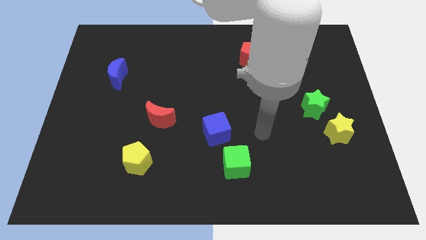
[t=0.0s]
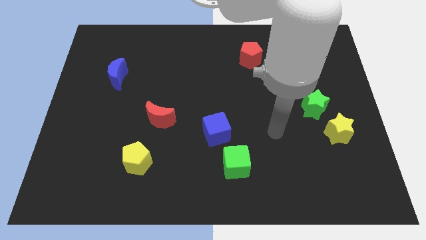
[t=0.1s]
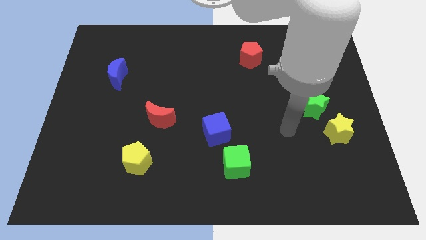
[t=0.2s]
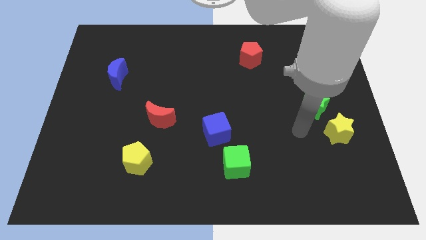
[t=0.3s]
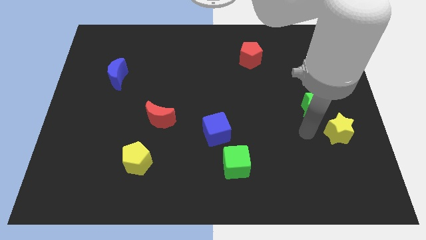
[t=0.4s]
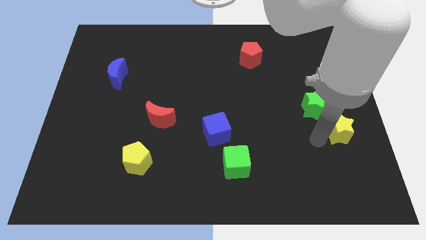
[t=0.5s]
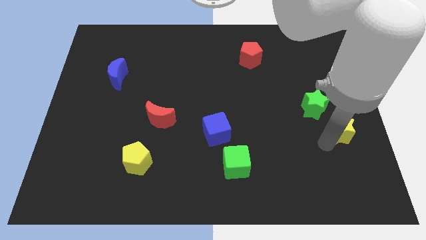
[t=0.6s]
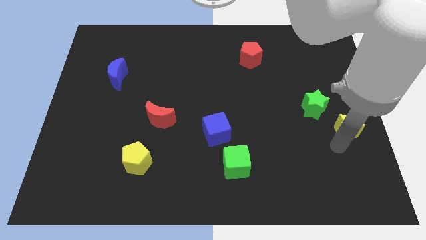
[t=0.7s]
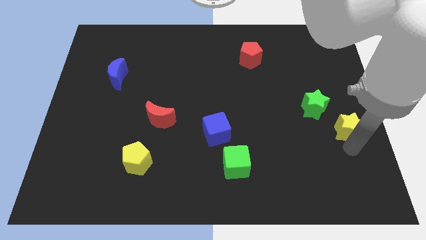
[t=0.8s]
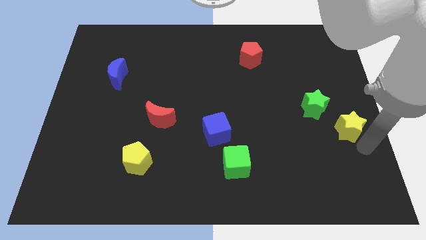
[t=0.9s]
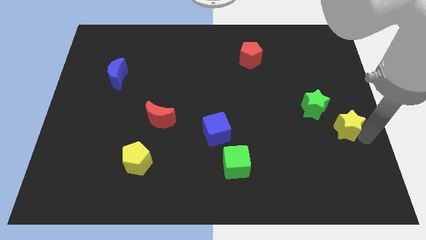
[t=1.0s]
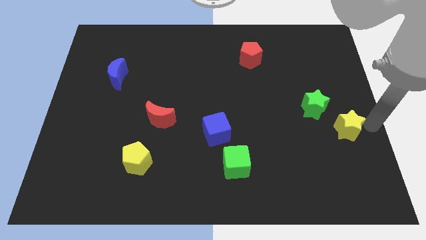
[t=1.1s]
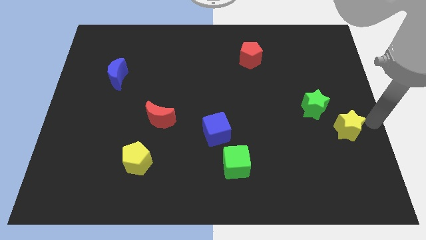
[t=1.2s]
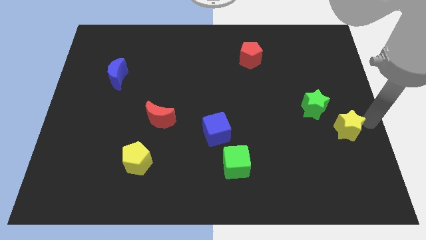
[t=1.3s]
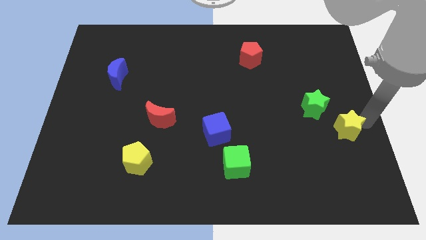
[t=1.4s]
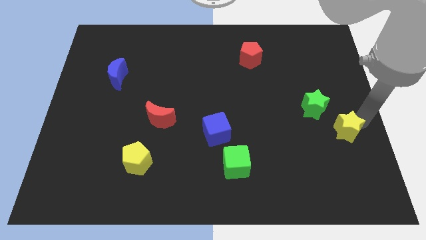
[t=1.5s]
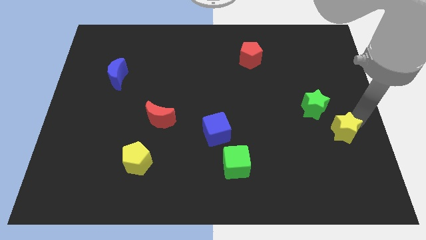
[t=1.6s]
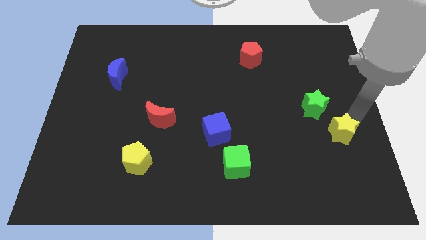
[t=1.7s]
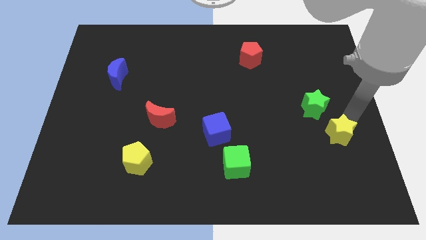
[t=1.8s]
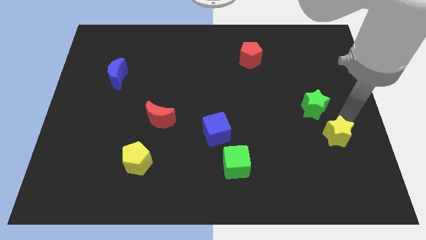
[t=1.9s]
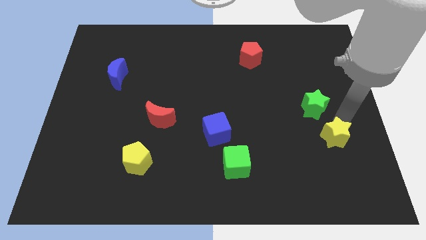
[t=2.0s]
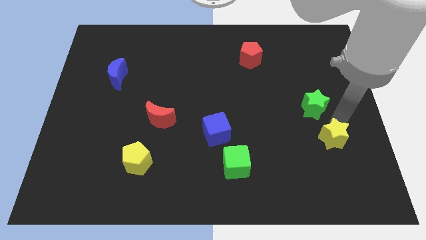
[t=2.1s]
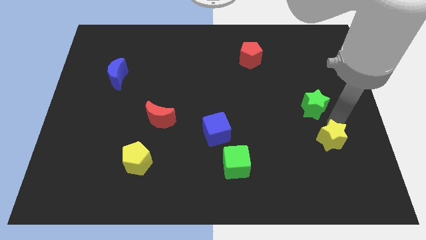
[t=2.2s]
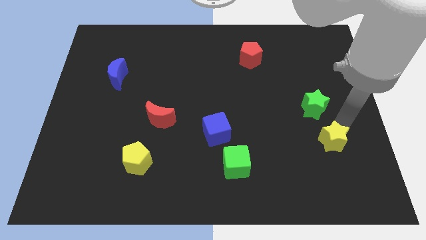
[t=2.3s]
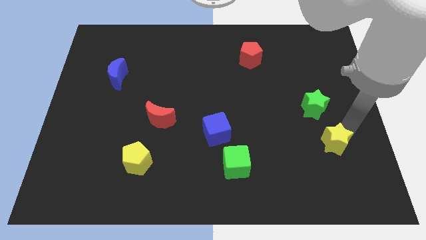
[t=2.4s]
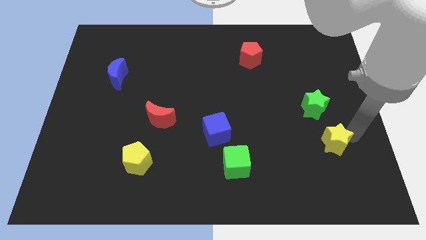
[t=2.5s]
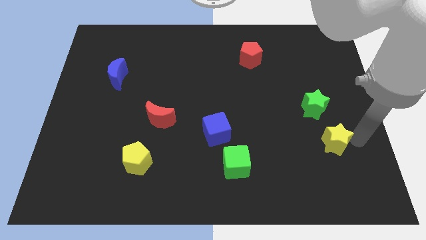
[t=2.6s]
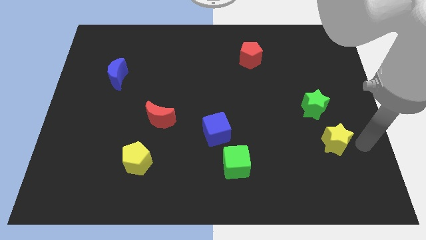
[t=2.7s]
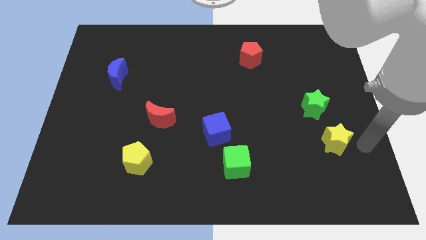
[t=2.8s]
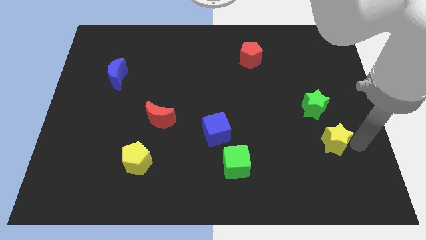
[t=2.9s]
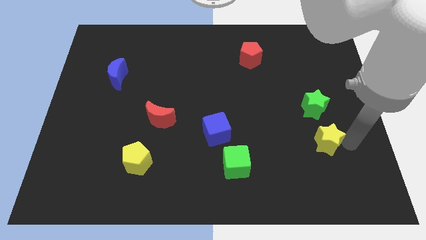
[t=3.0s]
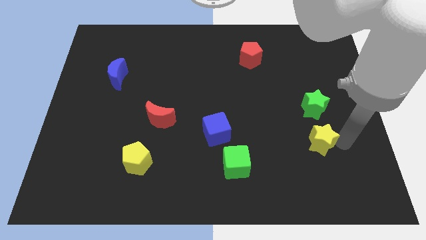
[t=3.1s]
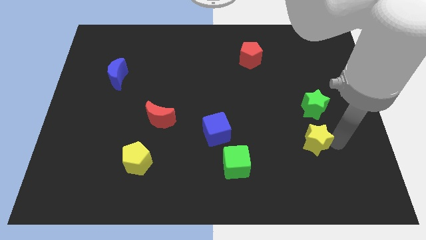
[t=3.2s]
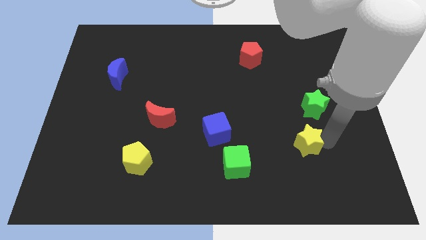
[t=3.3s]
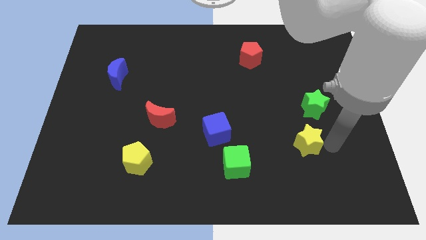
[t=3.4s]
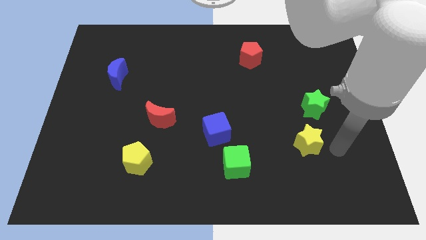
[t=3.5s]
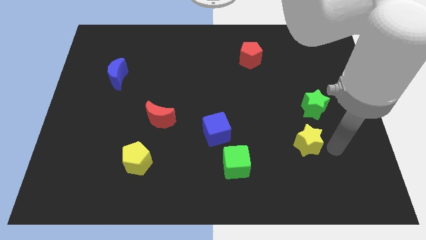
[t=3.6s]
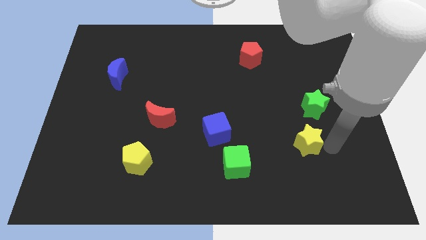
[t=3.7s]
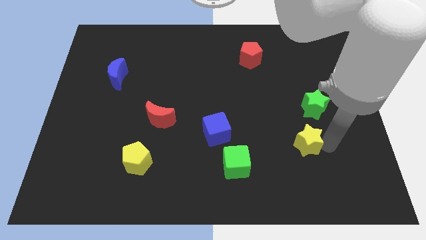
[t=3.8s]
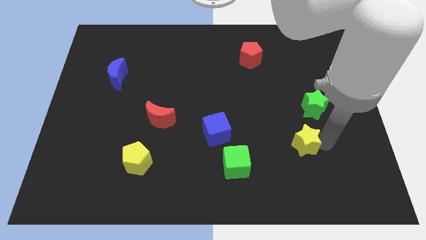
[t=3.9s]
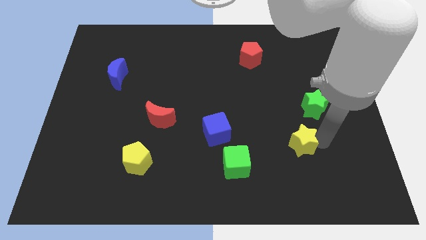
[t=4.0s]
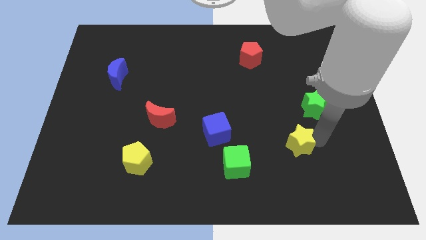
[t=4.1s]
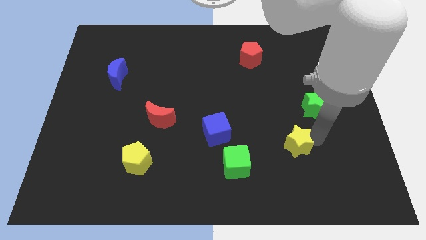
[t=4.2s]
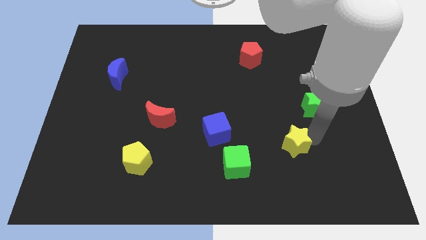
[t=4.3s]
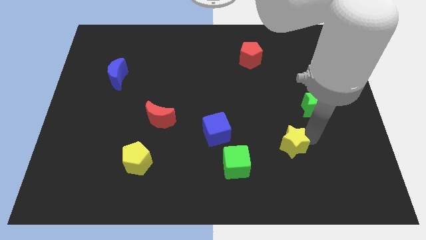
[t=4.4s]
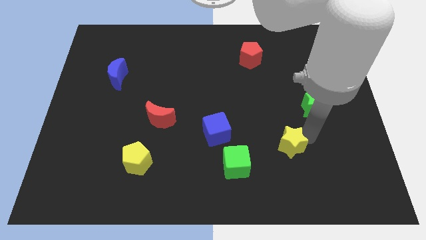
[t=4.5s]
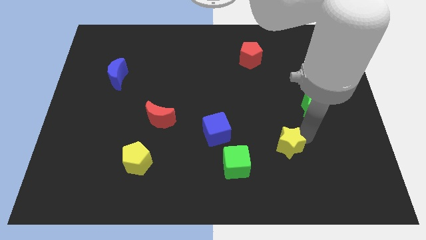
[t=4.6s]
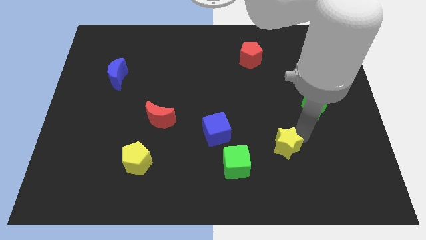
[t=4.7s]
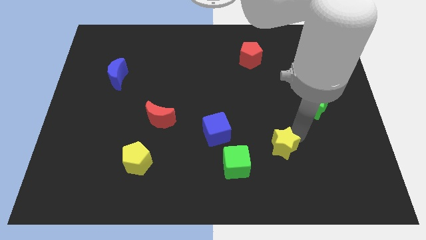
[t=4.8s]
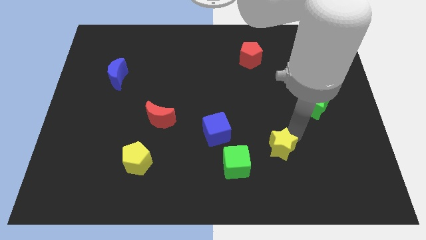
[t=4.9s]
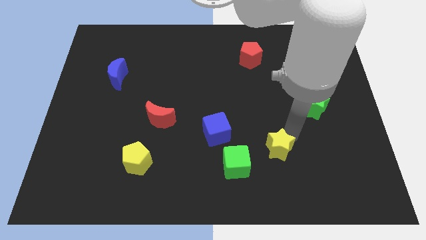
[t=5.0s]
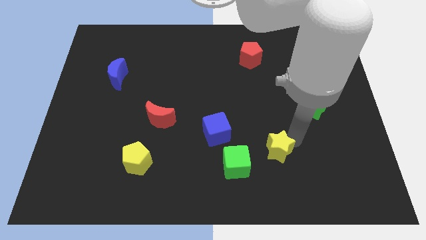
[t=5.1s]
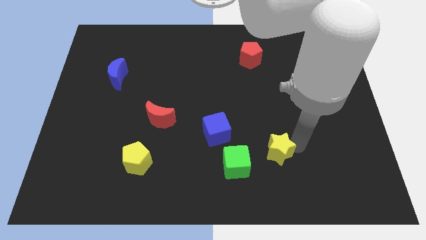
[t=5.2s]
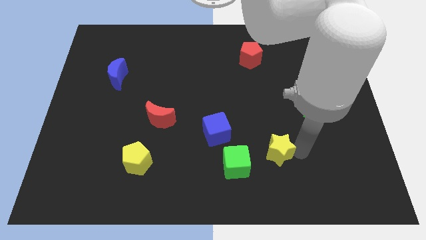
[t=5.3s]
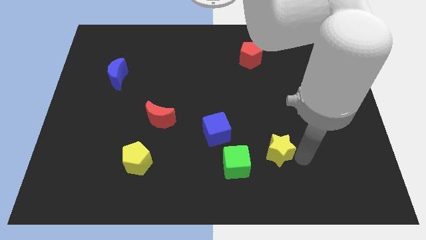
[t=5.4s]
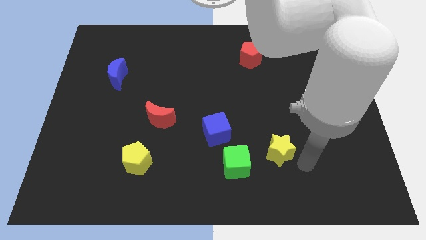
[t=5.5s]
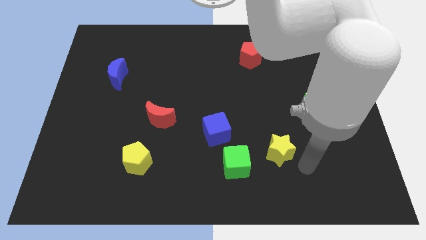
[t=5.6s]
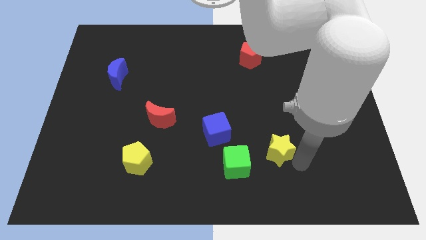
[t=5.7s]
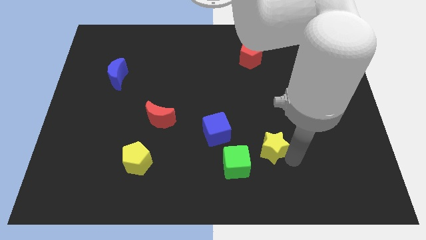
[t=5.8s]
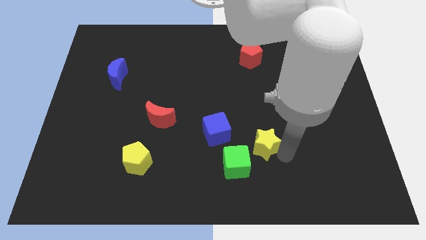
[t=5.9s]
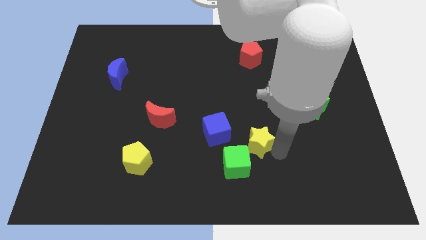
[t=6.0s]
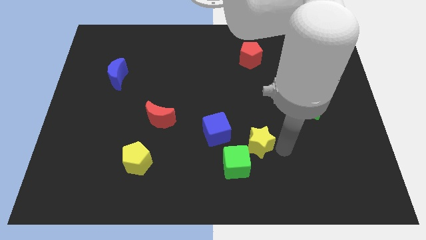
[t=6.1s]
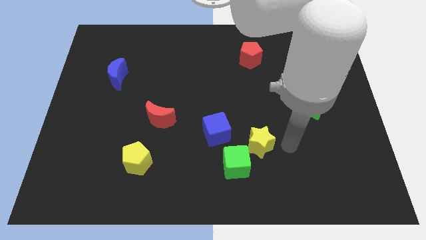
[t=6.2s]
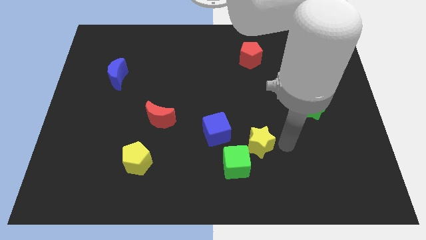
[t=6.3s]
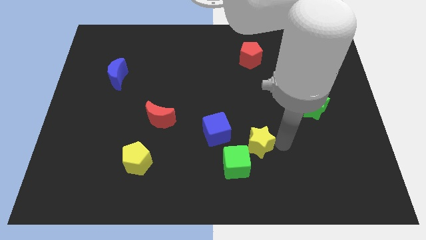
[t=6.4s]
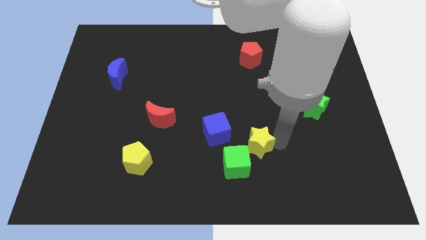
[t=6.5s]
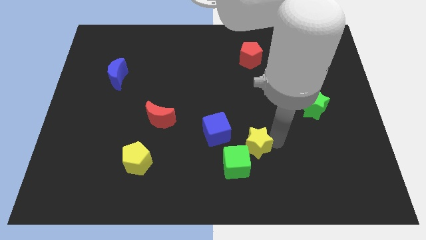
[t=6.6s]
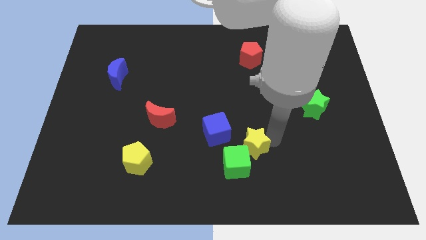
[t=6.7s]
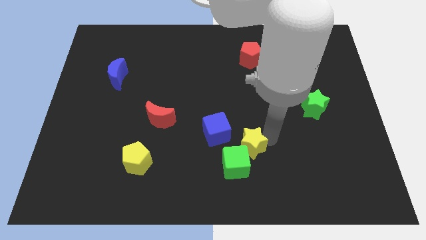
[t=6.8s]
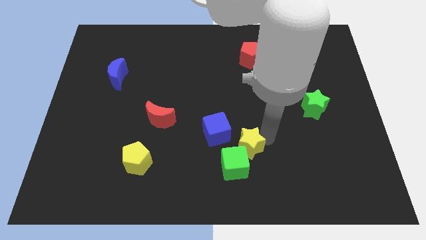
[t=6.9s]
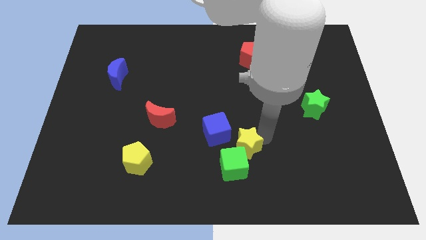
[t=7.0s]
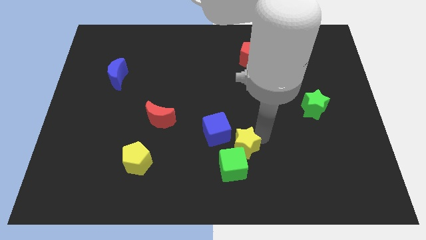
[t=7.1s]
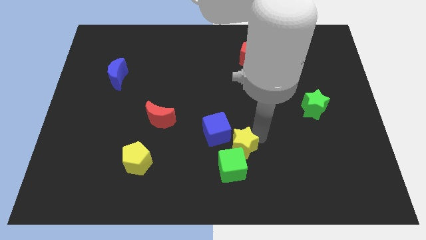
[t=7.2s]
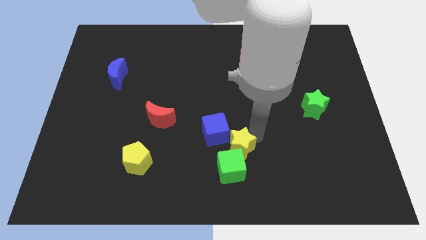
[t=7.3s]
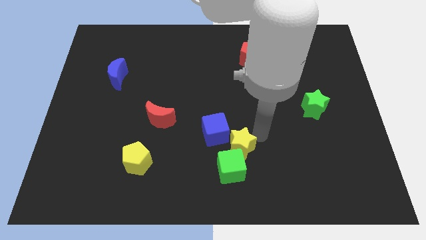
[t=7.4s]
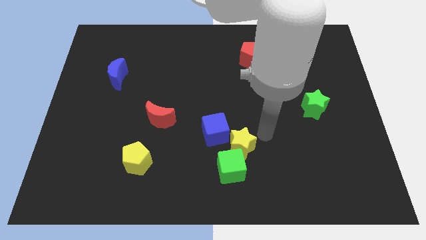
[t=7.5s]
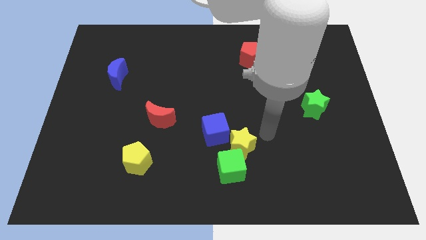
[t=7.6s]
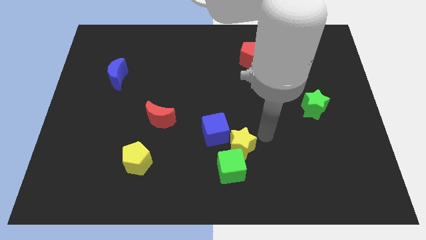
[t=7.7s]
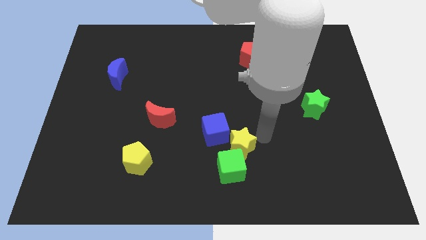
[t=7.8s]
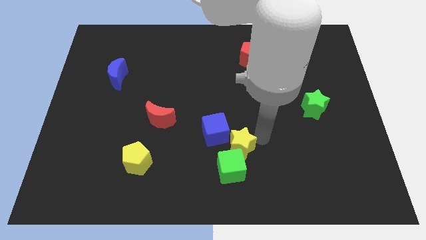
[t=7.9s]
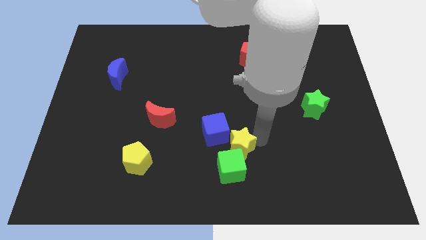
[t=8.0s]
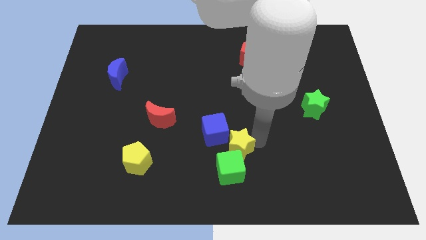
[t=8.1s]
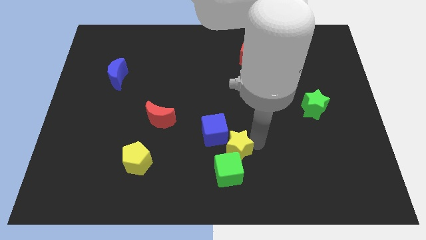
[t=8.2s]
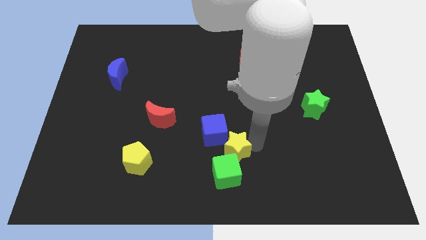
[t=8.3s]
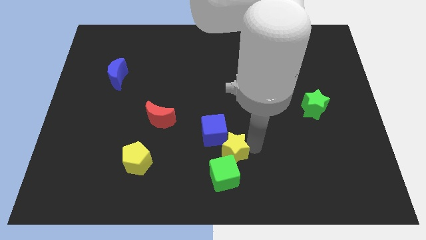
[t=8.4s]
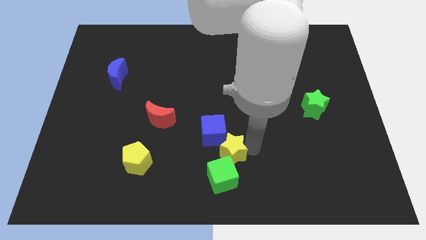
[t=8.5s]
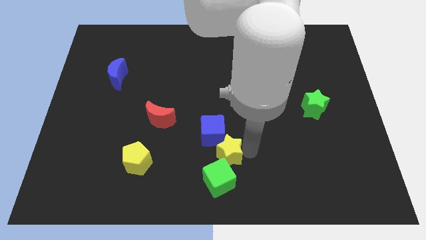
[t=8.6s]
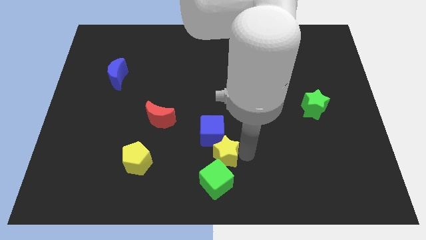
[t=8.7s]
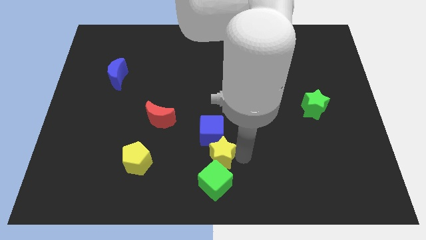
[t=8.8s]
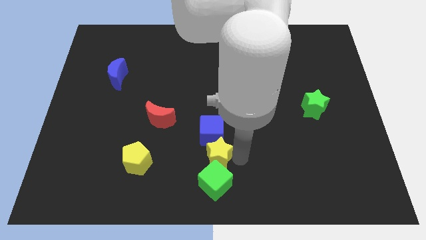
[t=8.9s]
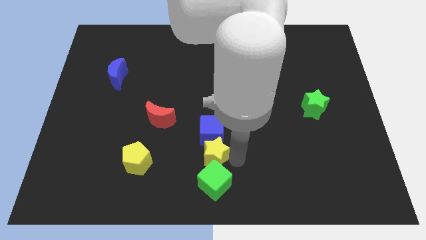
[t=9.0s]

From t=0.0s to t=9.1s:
push the yellow star diagonally down and to the left of the blue cube
